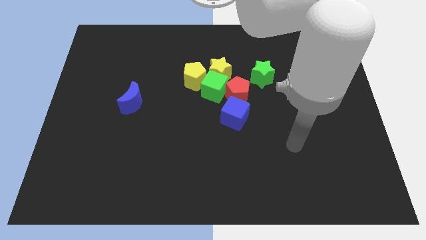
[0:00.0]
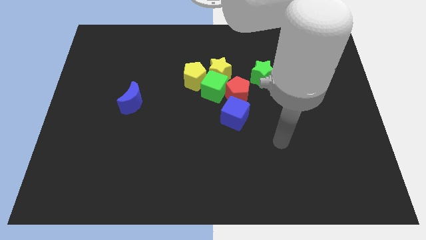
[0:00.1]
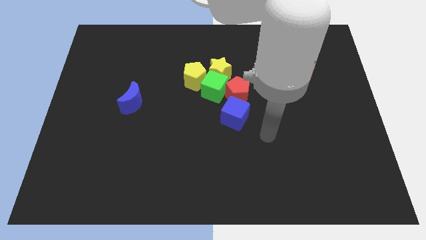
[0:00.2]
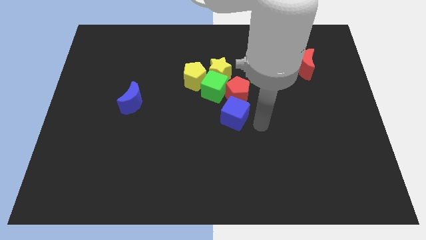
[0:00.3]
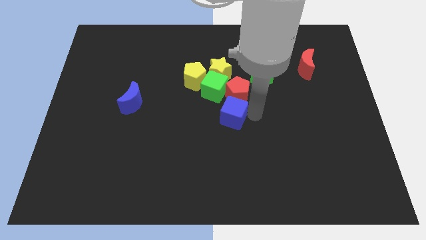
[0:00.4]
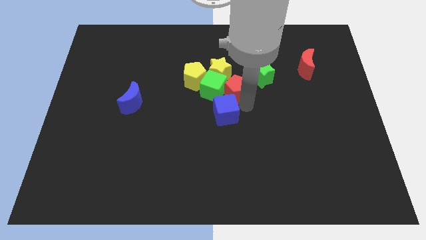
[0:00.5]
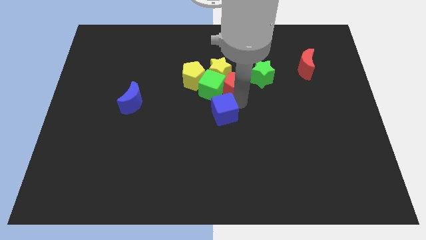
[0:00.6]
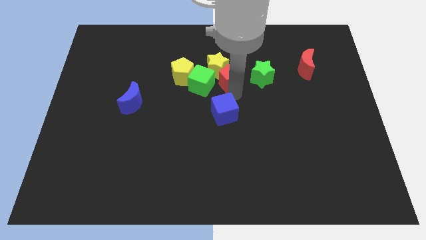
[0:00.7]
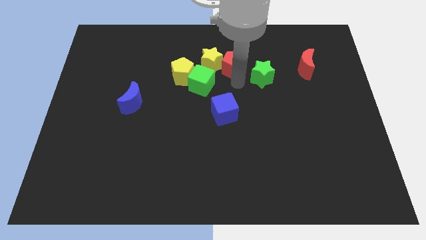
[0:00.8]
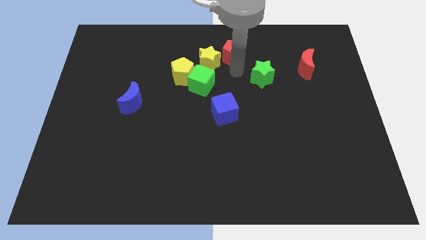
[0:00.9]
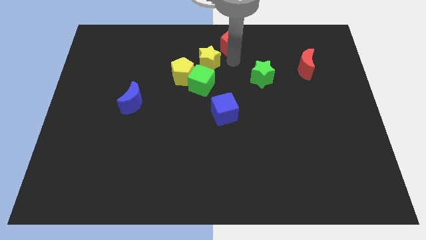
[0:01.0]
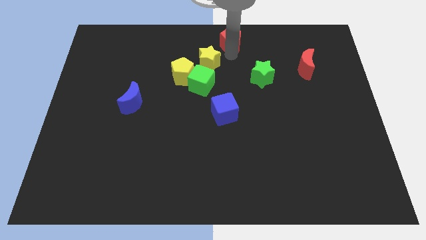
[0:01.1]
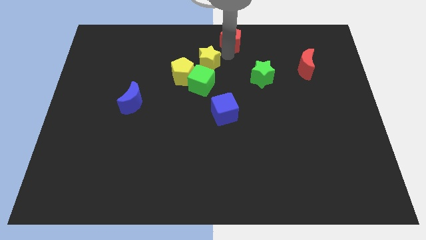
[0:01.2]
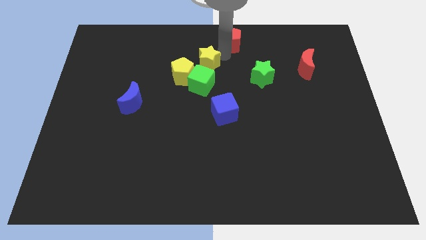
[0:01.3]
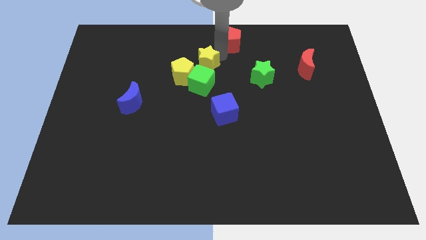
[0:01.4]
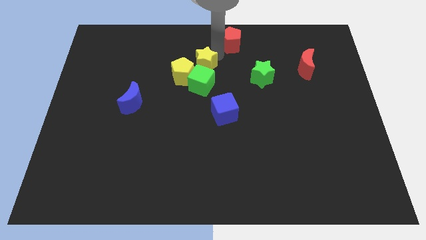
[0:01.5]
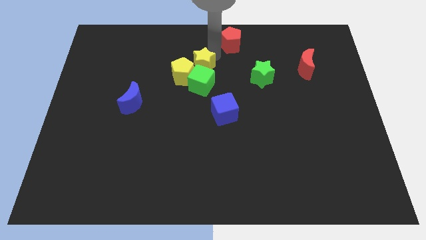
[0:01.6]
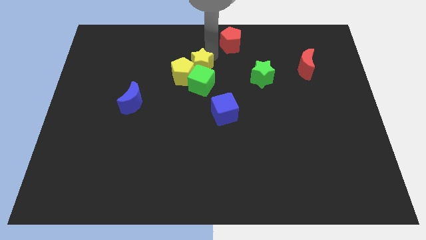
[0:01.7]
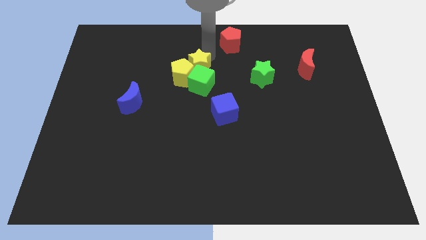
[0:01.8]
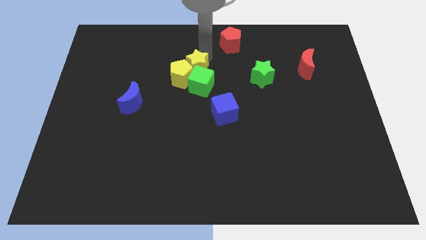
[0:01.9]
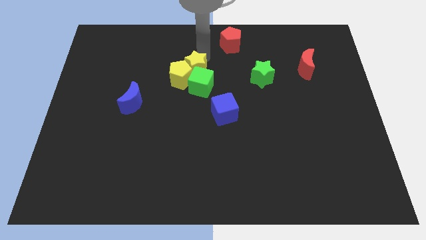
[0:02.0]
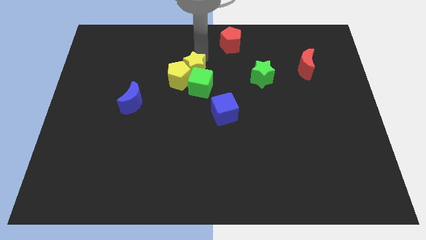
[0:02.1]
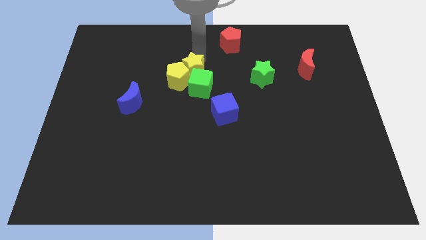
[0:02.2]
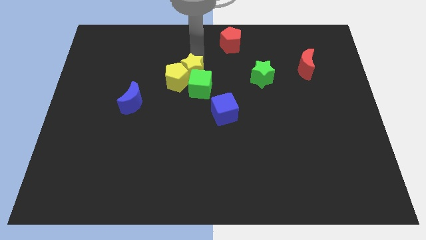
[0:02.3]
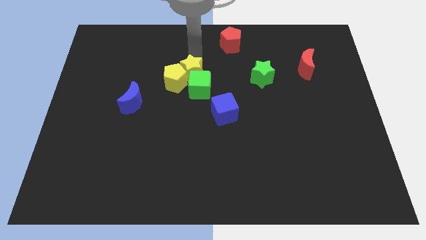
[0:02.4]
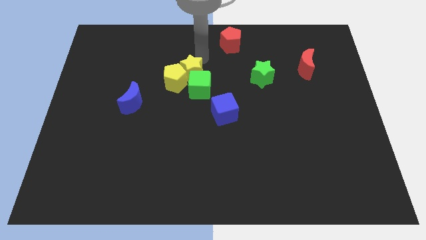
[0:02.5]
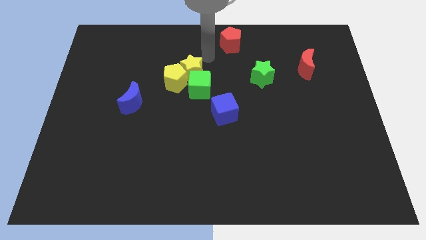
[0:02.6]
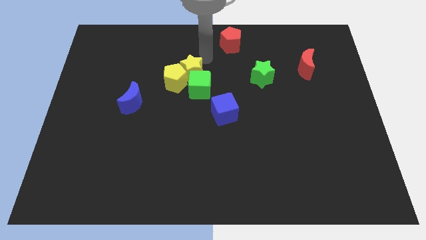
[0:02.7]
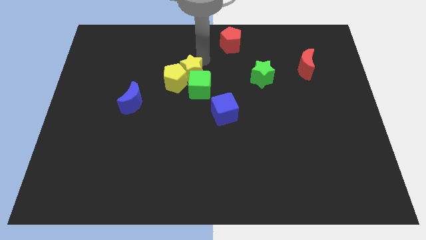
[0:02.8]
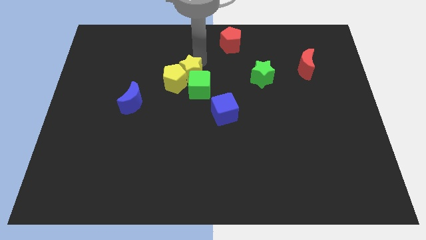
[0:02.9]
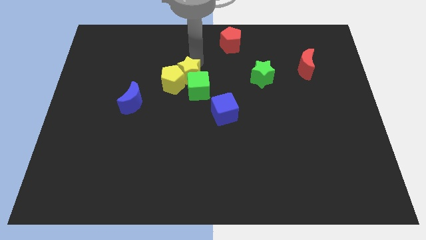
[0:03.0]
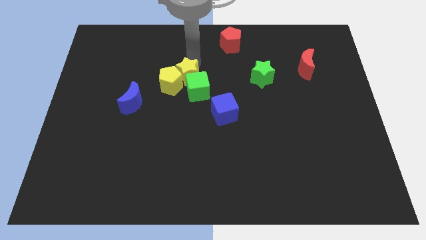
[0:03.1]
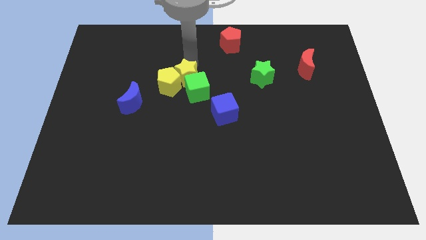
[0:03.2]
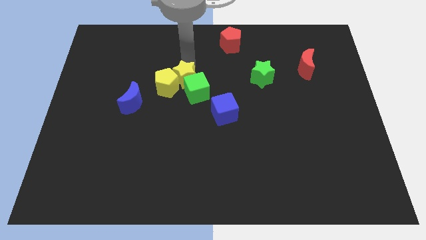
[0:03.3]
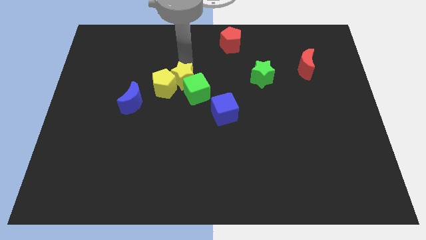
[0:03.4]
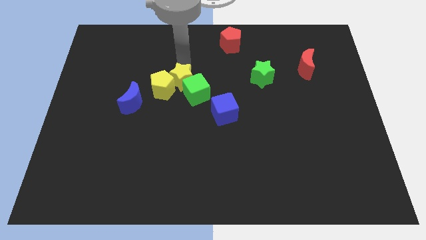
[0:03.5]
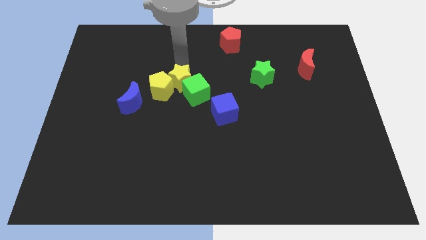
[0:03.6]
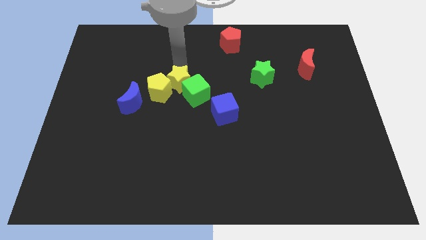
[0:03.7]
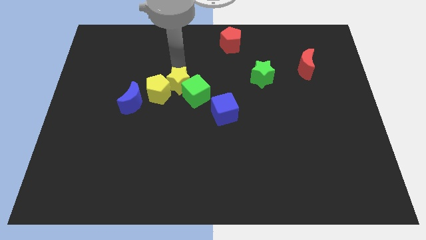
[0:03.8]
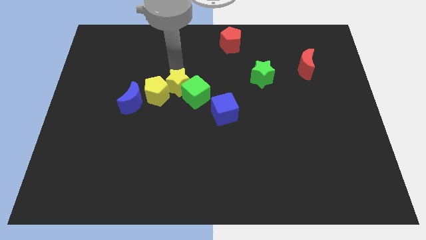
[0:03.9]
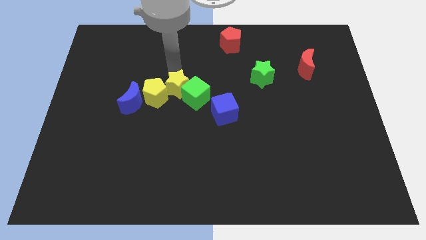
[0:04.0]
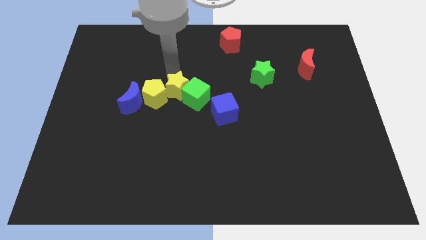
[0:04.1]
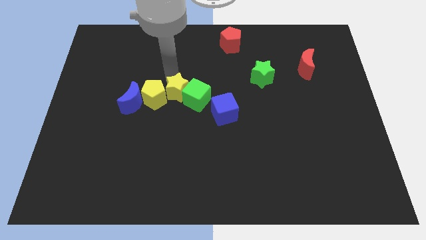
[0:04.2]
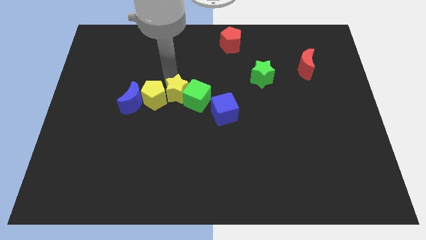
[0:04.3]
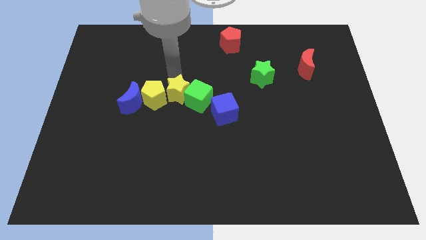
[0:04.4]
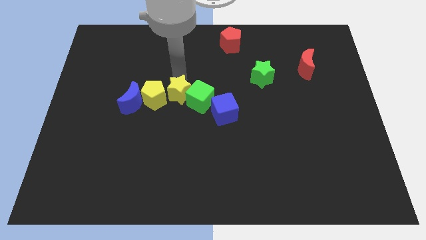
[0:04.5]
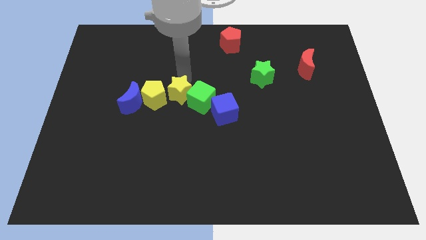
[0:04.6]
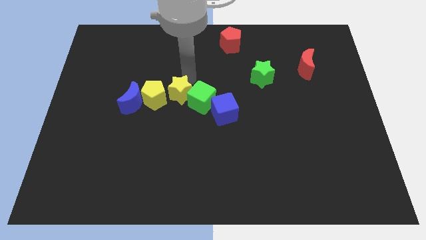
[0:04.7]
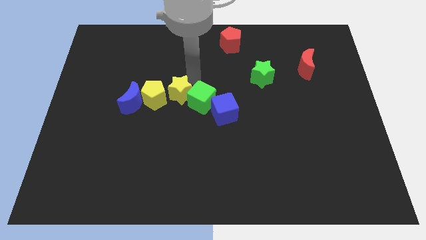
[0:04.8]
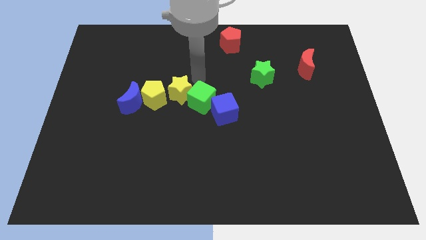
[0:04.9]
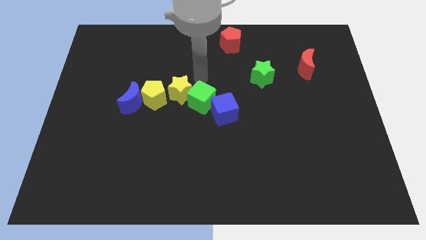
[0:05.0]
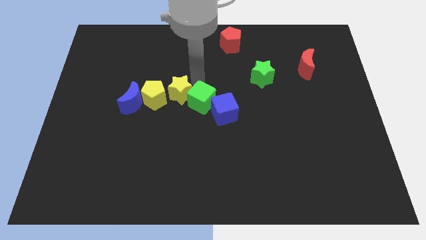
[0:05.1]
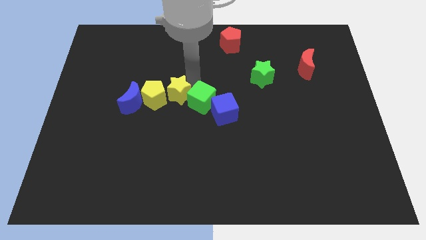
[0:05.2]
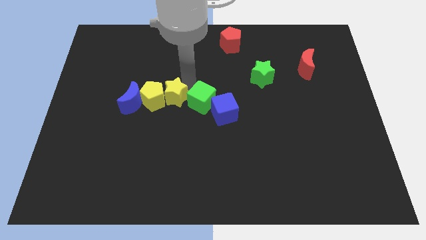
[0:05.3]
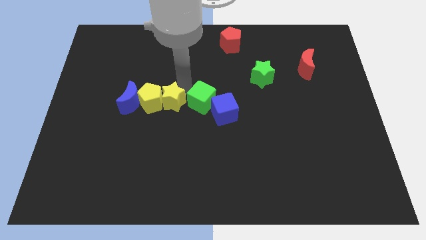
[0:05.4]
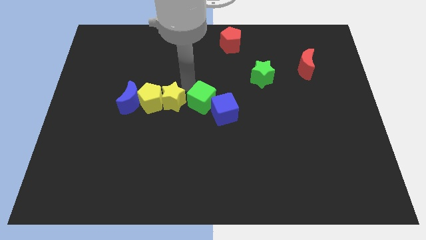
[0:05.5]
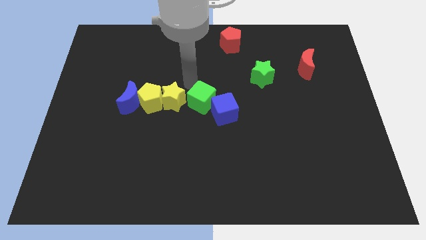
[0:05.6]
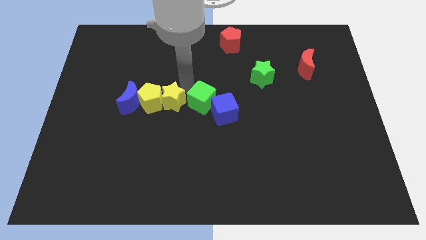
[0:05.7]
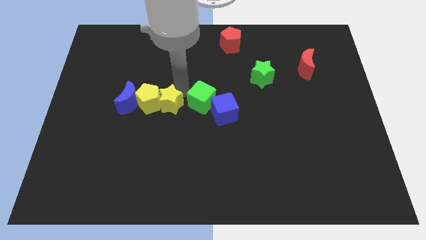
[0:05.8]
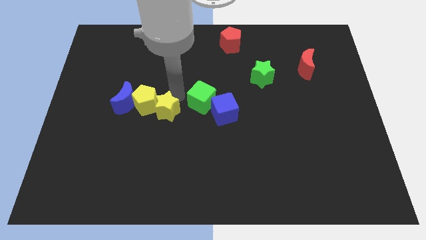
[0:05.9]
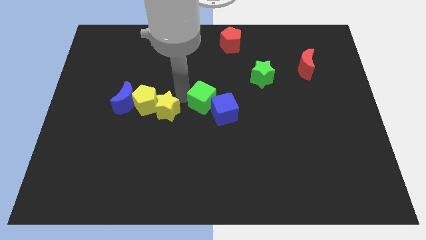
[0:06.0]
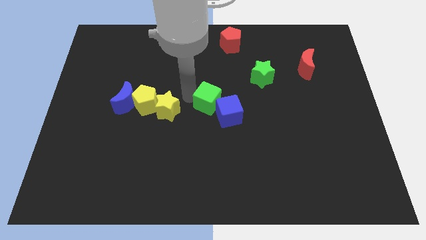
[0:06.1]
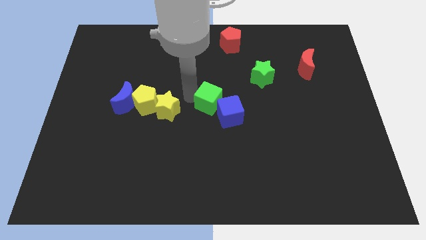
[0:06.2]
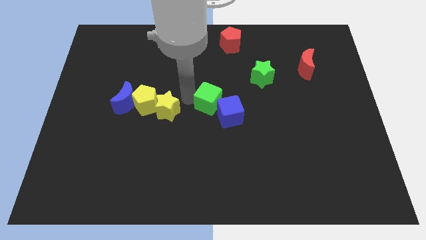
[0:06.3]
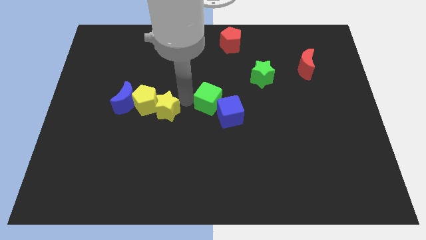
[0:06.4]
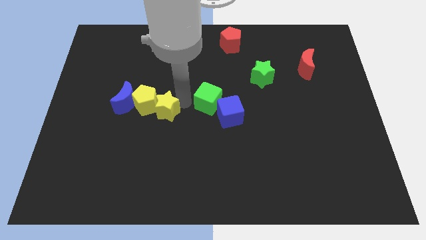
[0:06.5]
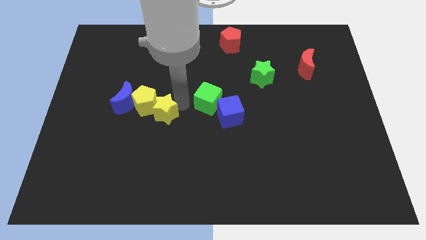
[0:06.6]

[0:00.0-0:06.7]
move the yellow star to the bottom right side of the blue moon

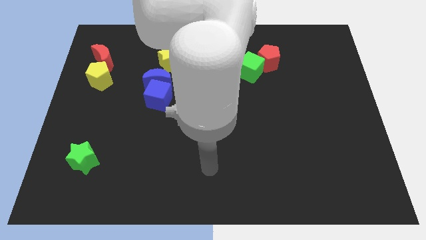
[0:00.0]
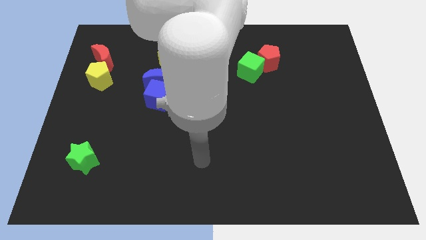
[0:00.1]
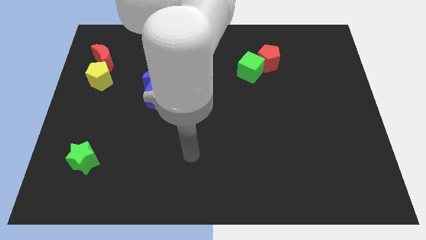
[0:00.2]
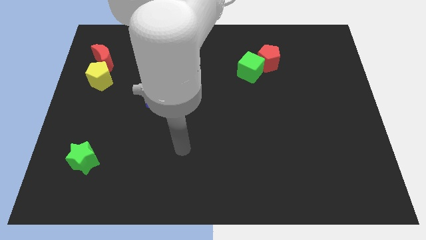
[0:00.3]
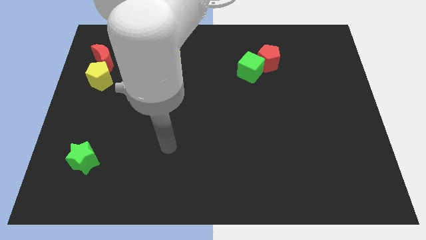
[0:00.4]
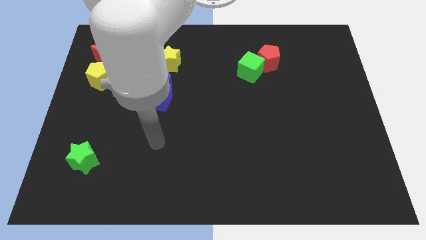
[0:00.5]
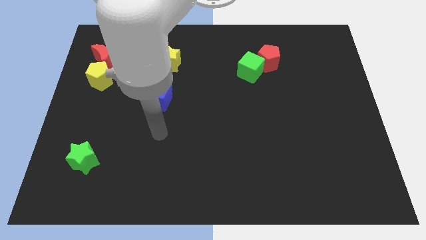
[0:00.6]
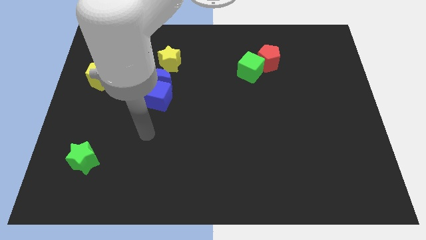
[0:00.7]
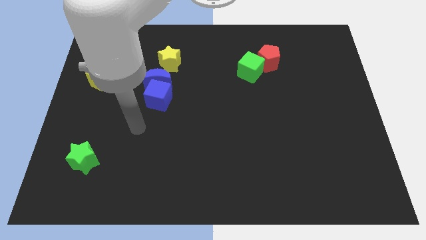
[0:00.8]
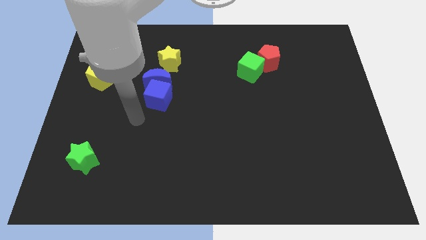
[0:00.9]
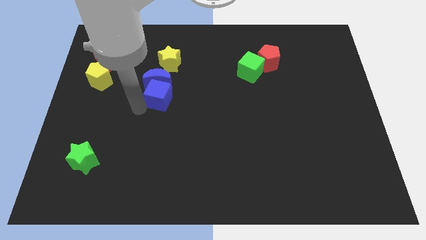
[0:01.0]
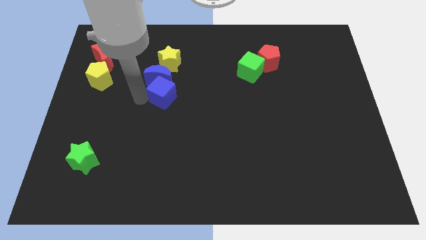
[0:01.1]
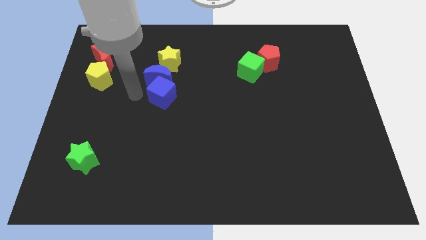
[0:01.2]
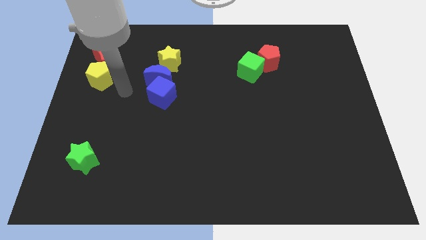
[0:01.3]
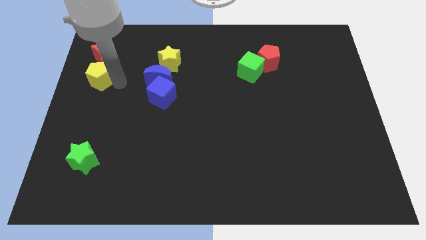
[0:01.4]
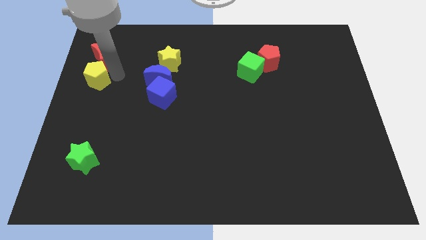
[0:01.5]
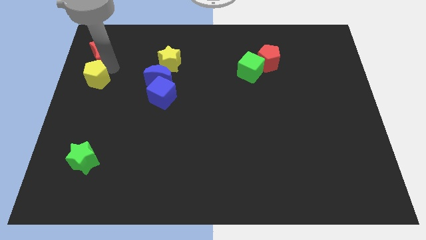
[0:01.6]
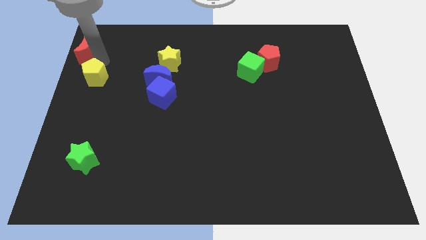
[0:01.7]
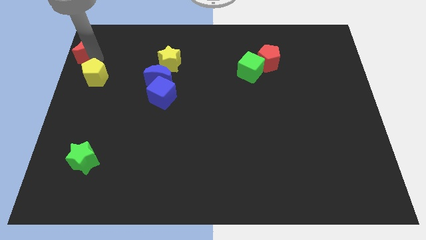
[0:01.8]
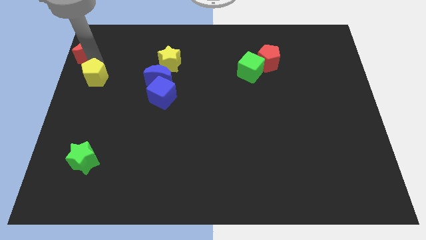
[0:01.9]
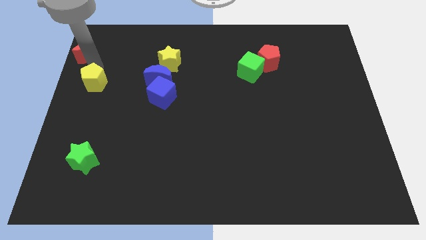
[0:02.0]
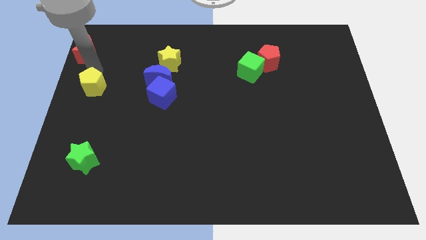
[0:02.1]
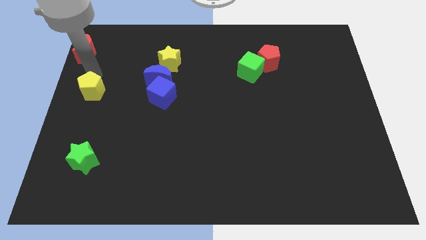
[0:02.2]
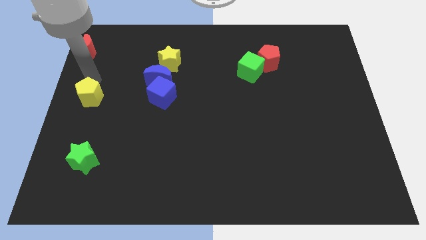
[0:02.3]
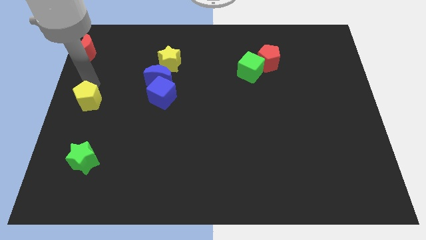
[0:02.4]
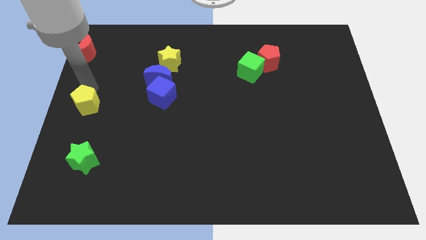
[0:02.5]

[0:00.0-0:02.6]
move the yellow pentagon above the green star
